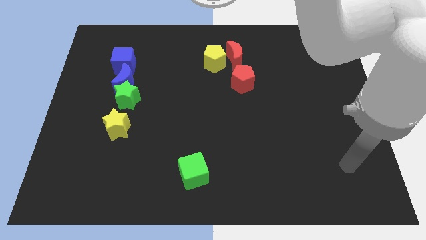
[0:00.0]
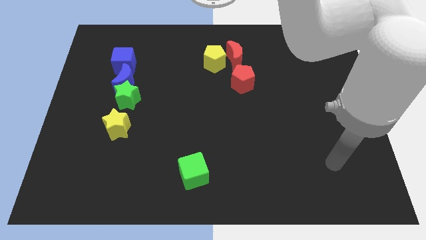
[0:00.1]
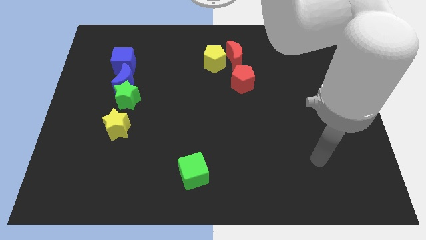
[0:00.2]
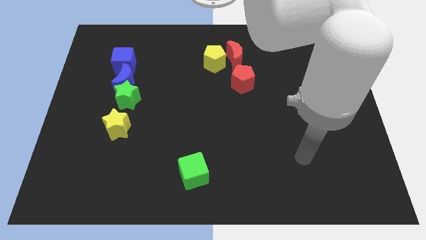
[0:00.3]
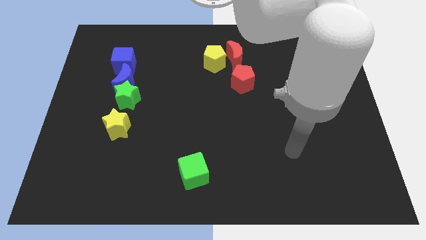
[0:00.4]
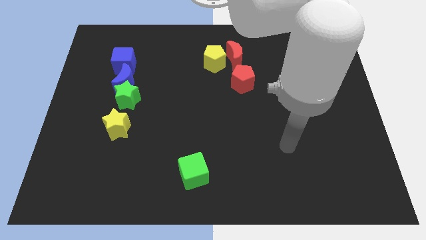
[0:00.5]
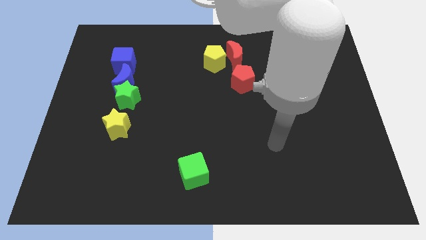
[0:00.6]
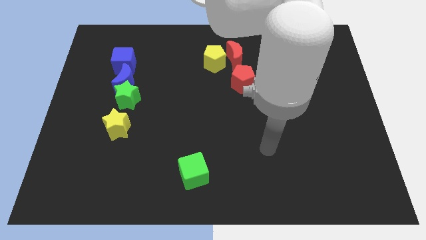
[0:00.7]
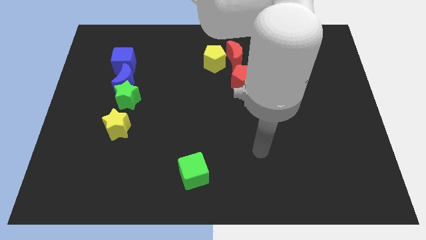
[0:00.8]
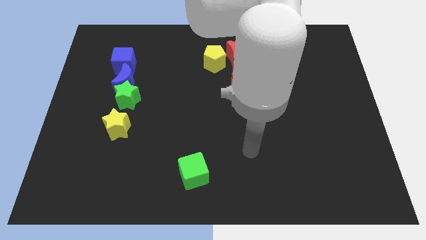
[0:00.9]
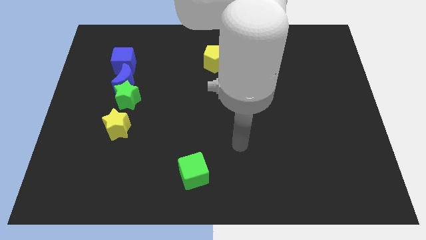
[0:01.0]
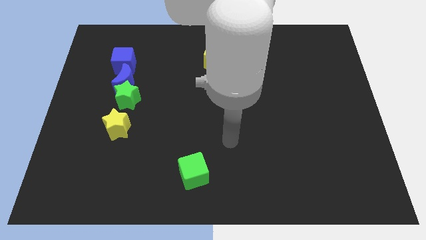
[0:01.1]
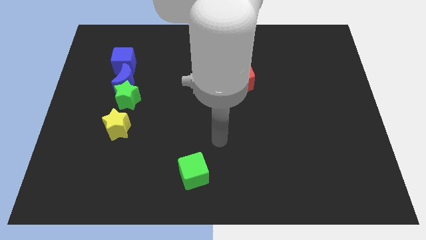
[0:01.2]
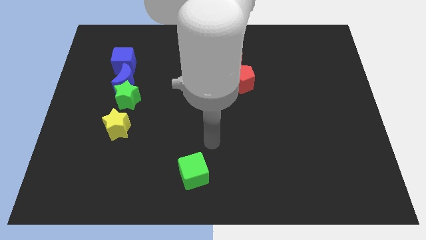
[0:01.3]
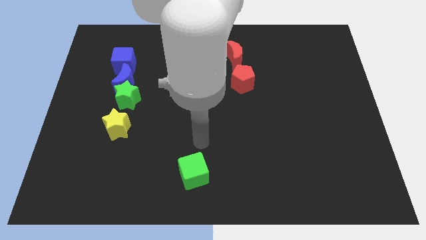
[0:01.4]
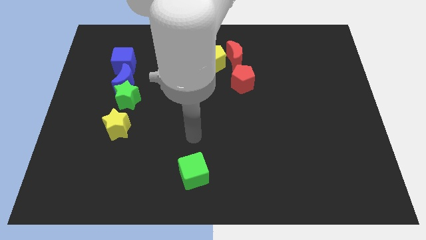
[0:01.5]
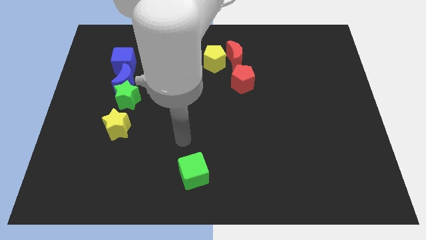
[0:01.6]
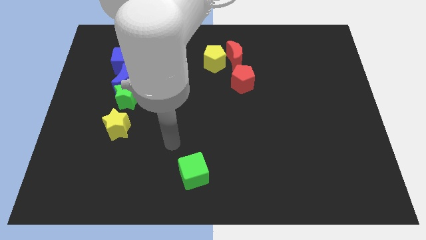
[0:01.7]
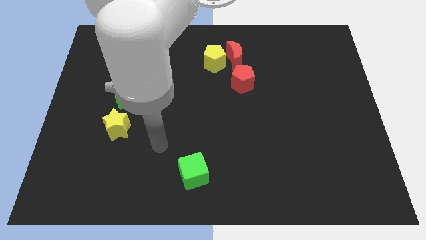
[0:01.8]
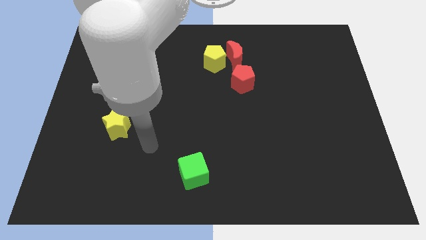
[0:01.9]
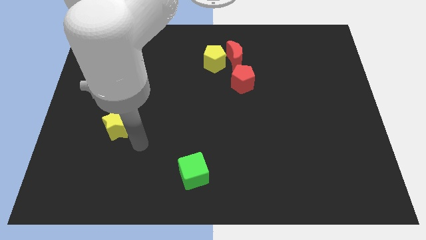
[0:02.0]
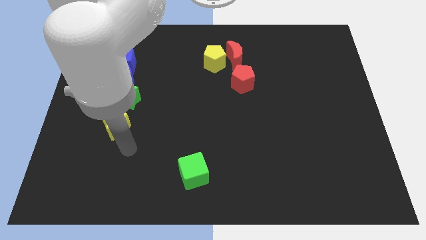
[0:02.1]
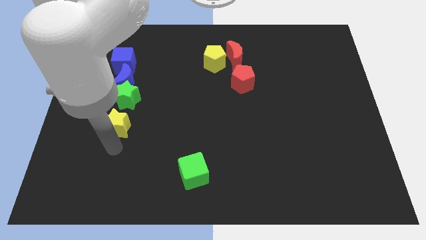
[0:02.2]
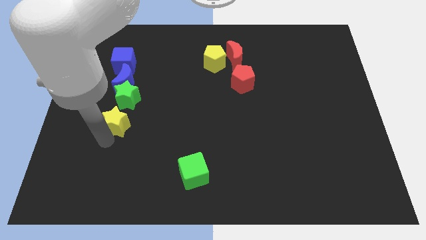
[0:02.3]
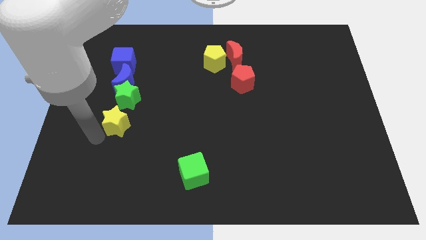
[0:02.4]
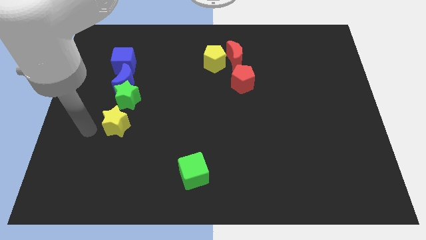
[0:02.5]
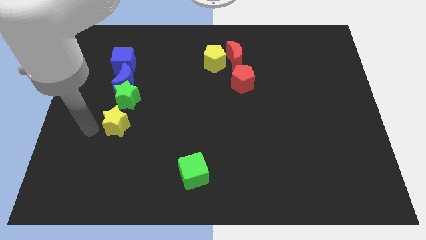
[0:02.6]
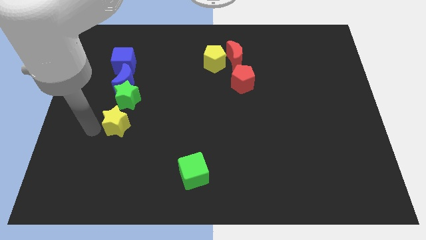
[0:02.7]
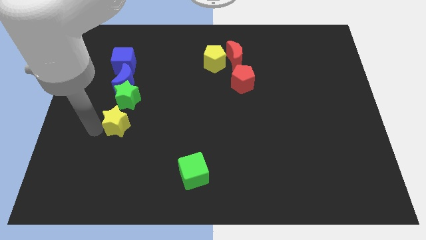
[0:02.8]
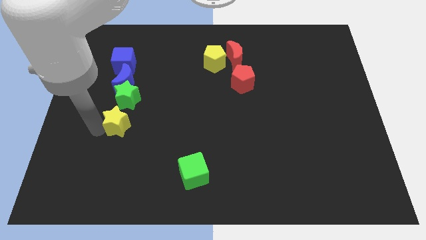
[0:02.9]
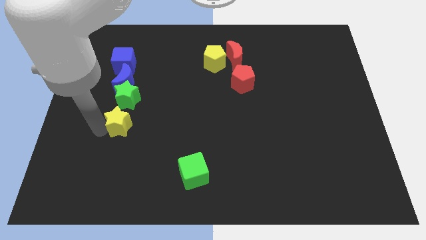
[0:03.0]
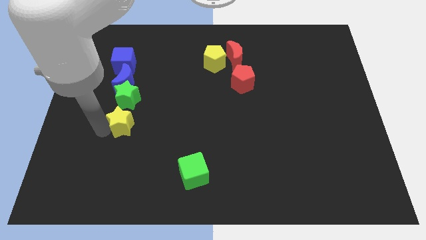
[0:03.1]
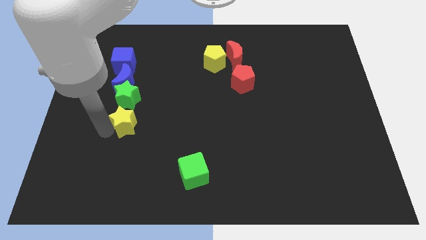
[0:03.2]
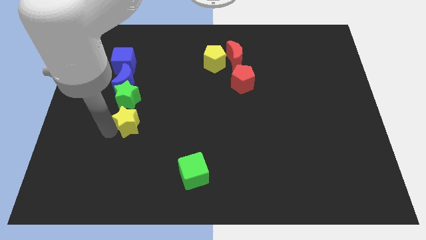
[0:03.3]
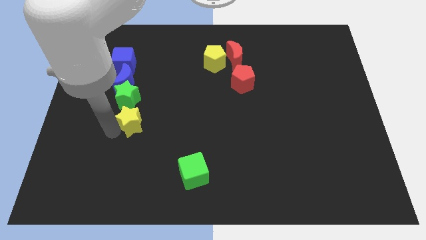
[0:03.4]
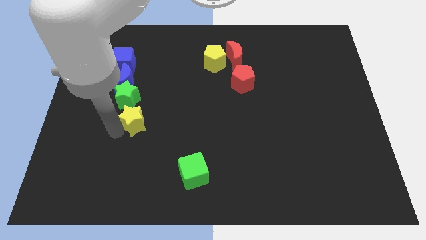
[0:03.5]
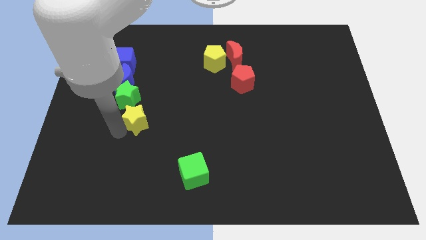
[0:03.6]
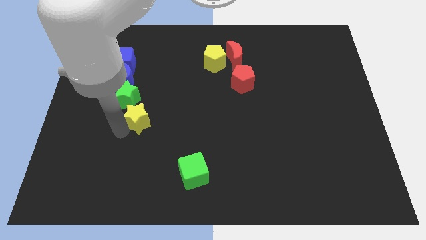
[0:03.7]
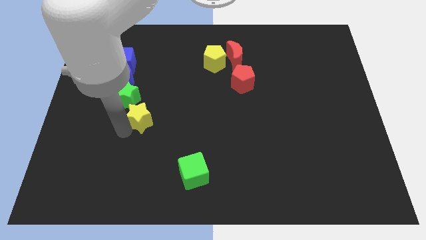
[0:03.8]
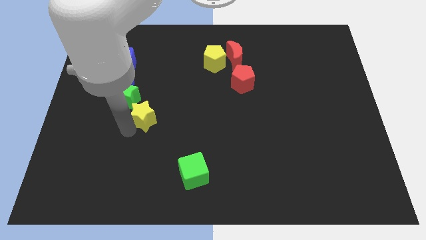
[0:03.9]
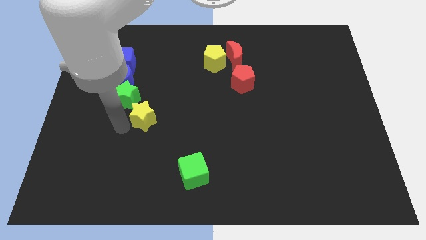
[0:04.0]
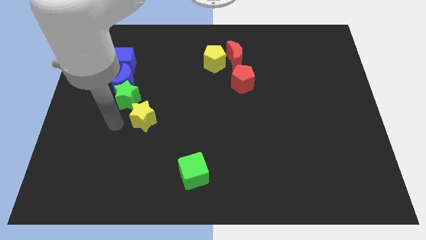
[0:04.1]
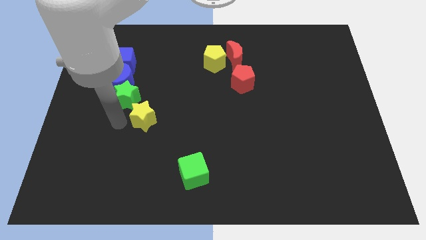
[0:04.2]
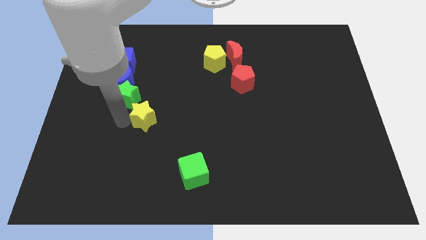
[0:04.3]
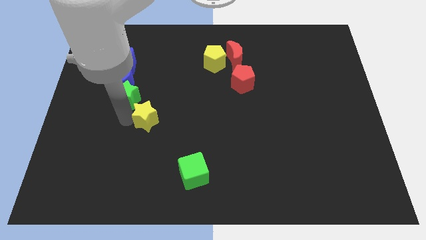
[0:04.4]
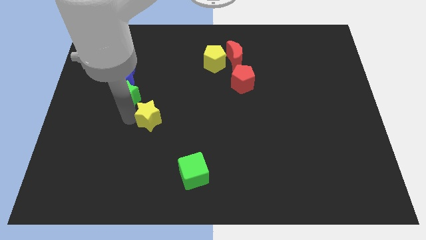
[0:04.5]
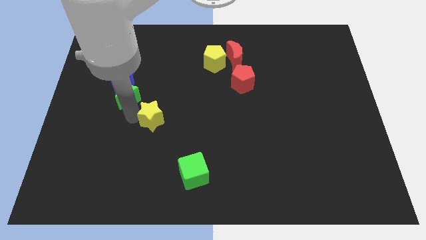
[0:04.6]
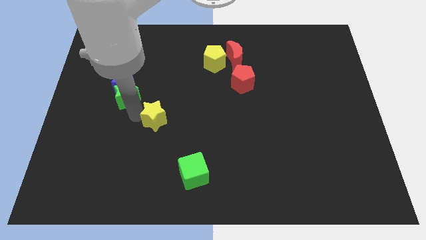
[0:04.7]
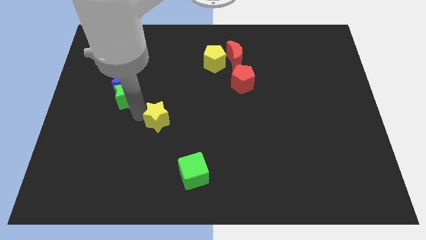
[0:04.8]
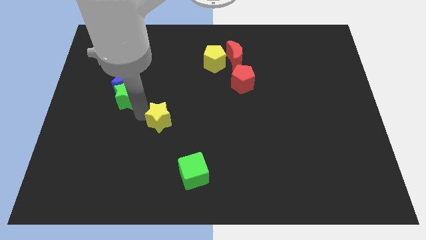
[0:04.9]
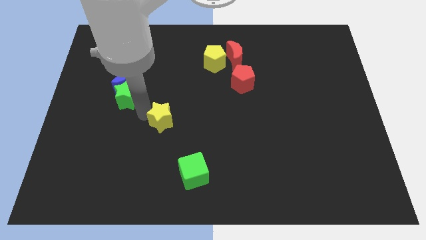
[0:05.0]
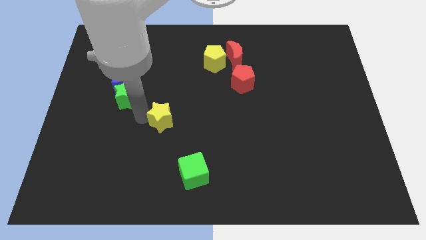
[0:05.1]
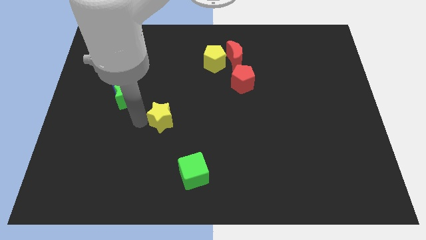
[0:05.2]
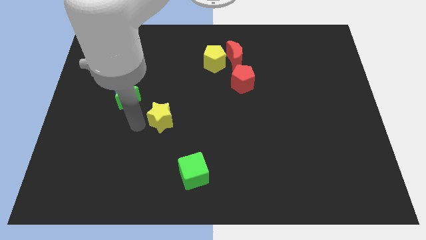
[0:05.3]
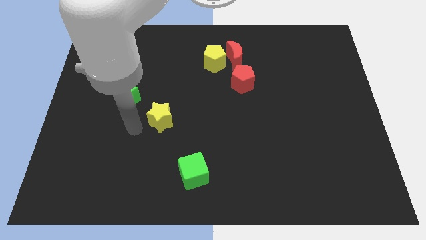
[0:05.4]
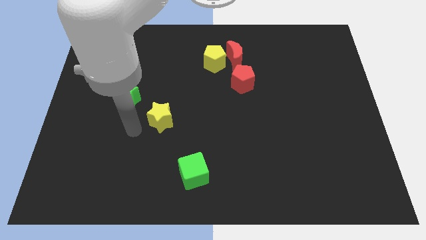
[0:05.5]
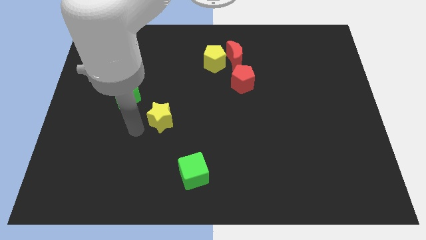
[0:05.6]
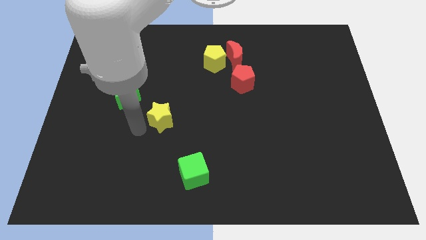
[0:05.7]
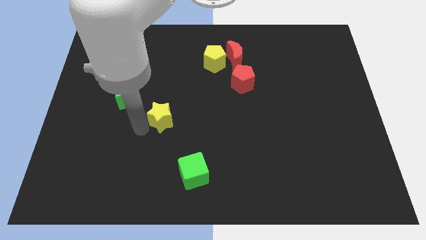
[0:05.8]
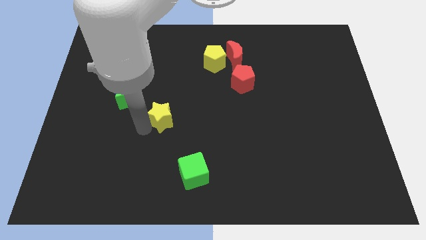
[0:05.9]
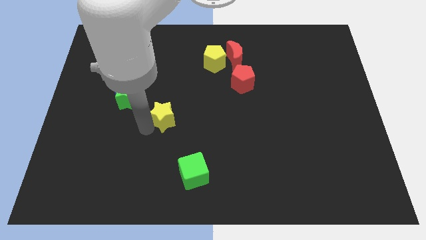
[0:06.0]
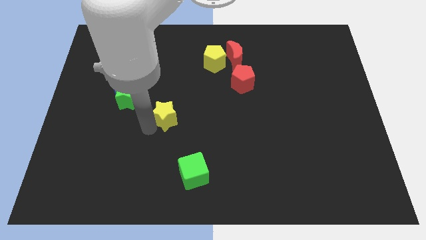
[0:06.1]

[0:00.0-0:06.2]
move the yellow star to the middle of the board

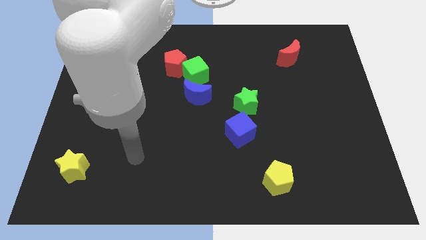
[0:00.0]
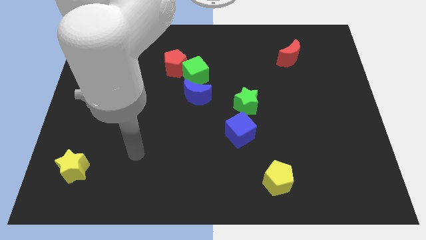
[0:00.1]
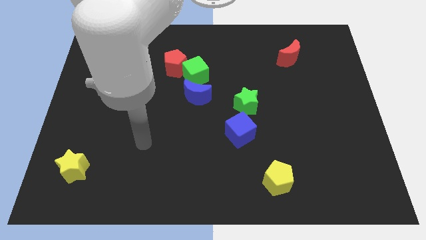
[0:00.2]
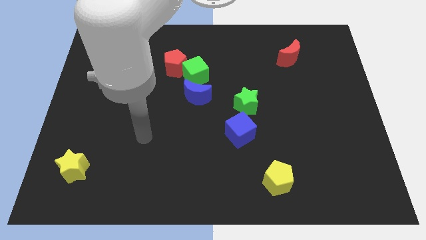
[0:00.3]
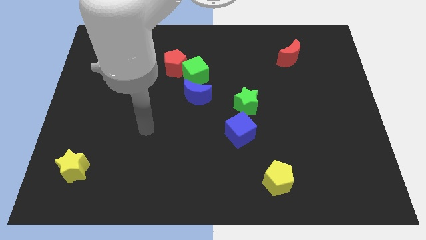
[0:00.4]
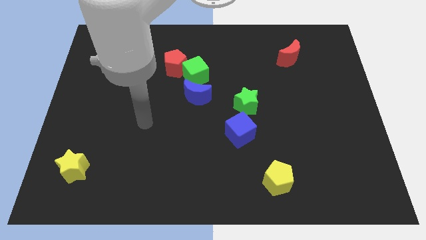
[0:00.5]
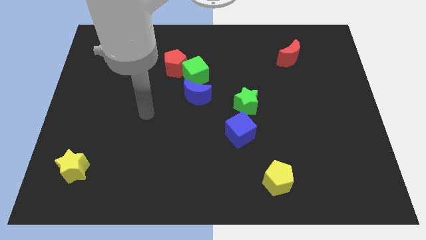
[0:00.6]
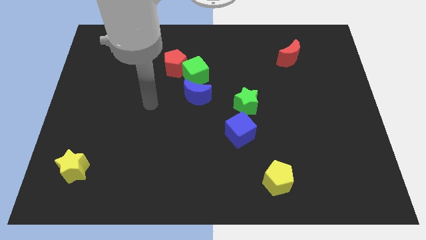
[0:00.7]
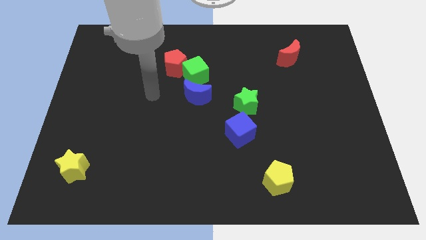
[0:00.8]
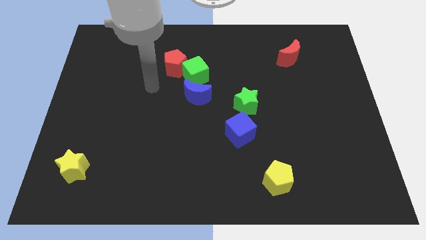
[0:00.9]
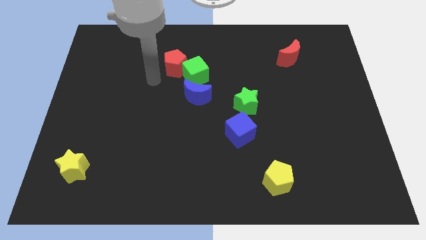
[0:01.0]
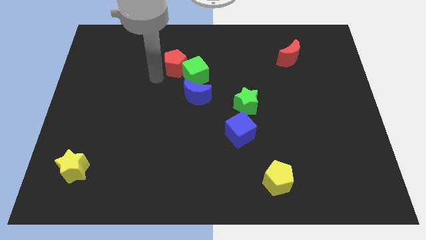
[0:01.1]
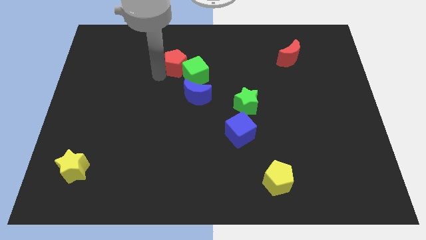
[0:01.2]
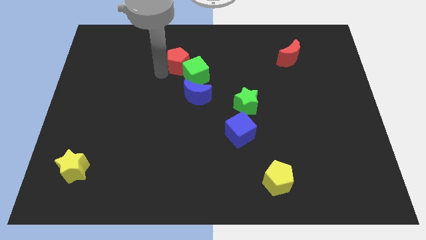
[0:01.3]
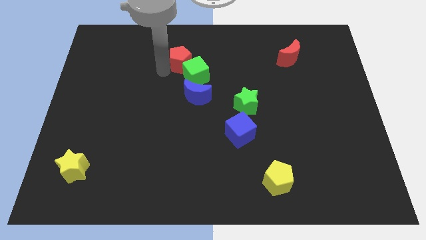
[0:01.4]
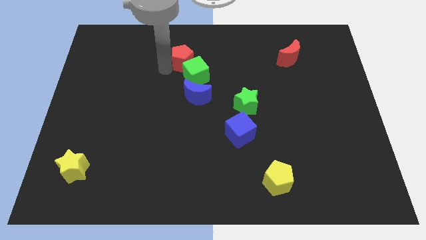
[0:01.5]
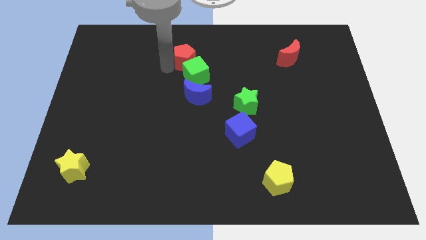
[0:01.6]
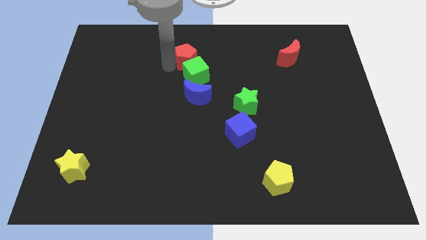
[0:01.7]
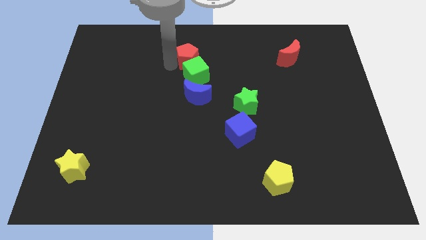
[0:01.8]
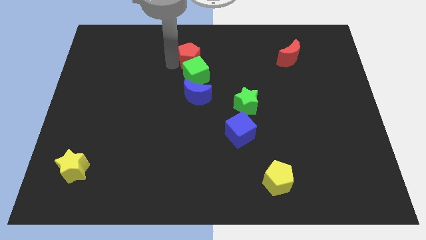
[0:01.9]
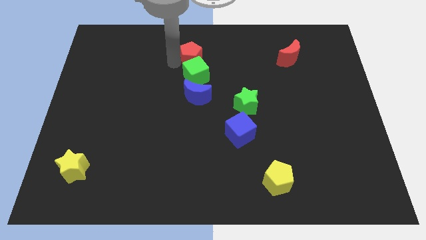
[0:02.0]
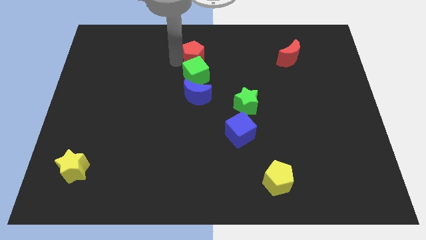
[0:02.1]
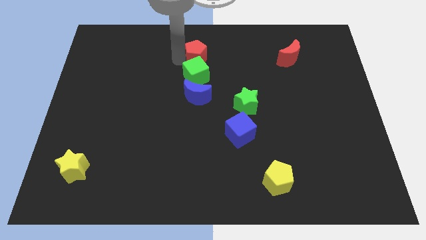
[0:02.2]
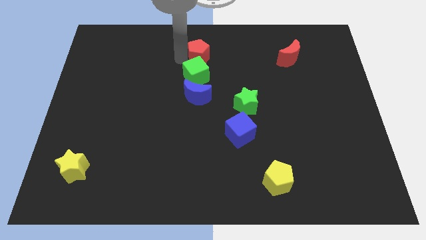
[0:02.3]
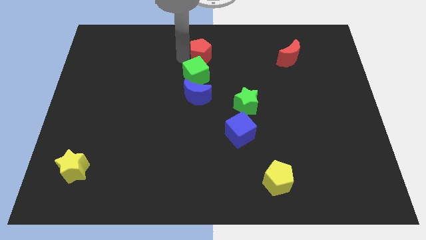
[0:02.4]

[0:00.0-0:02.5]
slide the red pentagon to the top side
